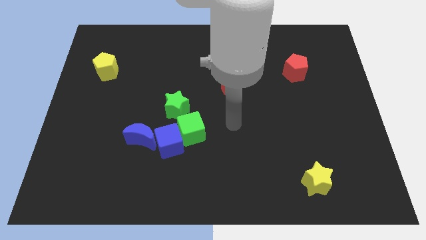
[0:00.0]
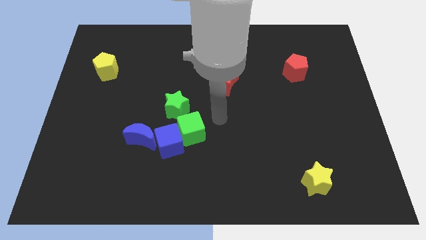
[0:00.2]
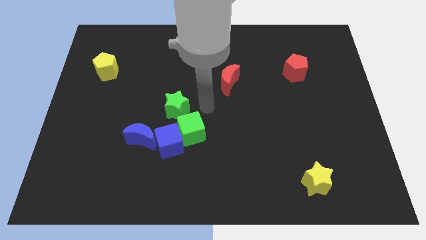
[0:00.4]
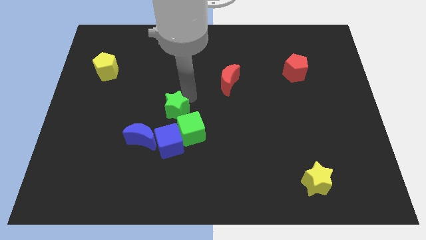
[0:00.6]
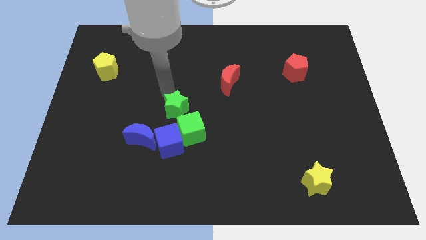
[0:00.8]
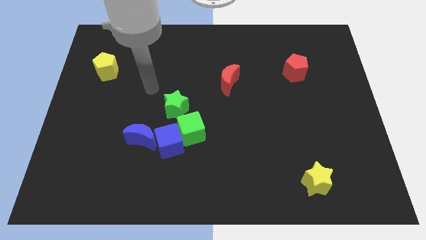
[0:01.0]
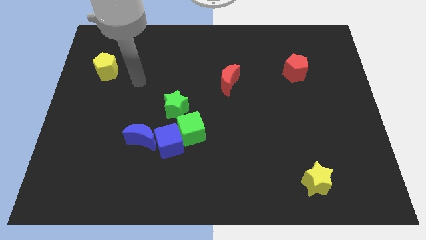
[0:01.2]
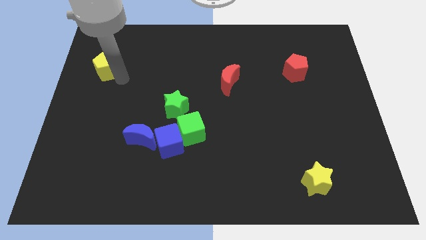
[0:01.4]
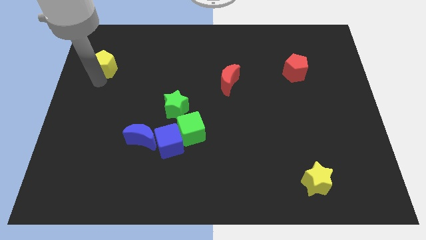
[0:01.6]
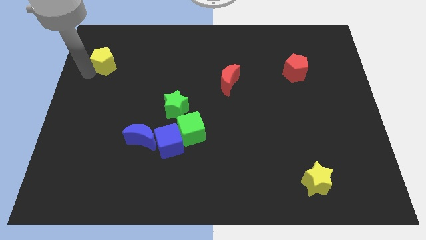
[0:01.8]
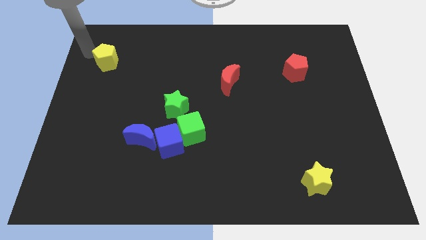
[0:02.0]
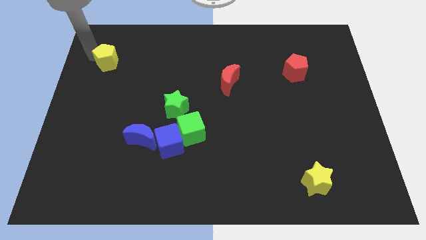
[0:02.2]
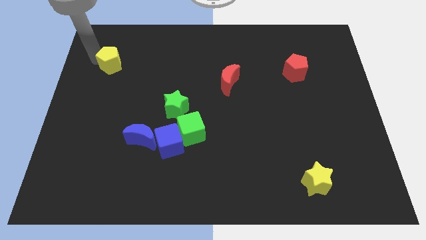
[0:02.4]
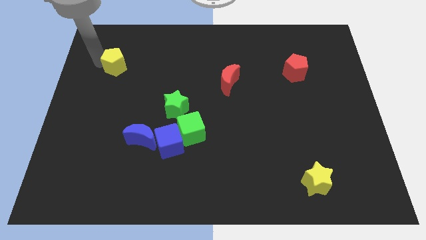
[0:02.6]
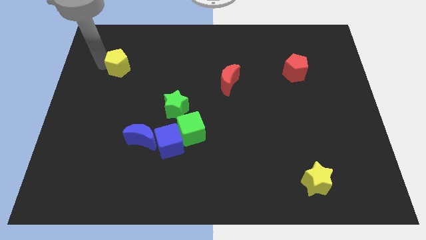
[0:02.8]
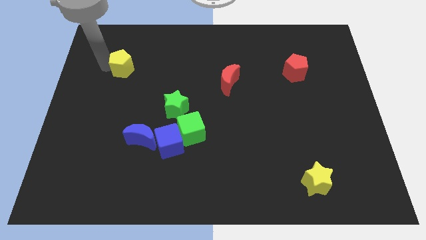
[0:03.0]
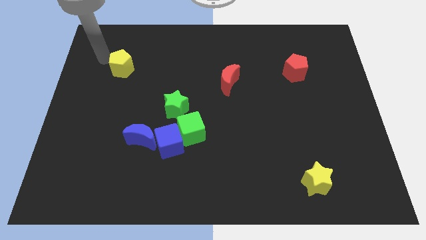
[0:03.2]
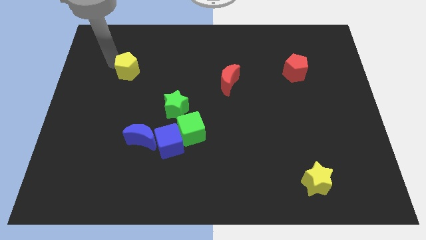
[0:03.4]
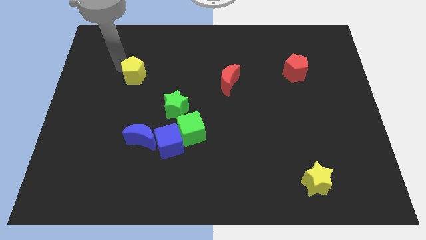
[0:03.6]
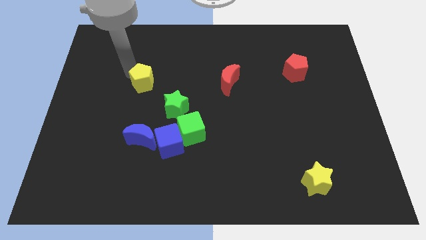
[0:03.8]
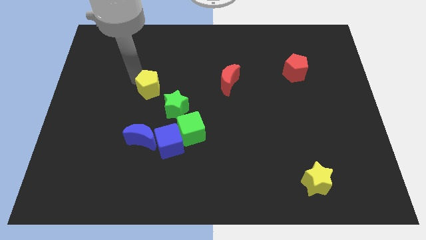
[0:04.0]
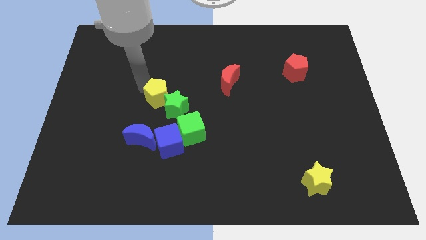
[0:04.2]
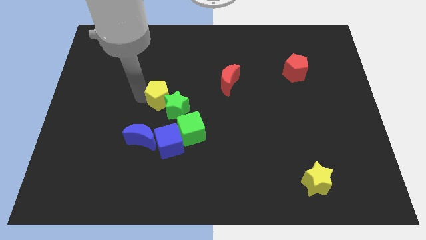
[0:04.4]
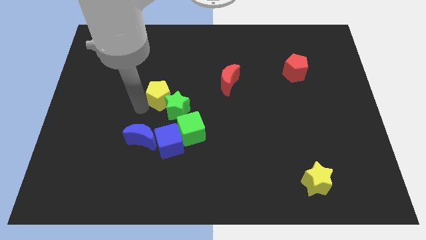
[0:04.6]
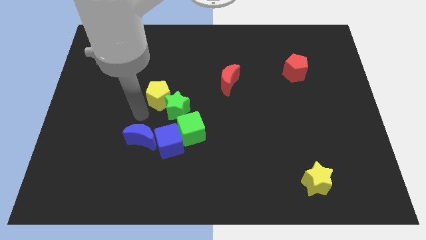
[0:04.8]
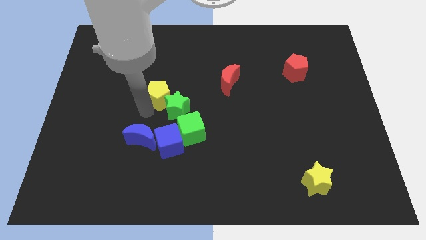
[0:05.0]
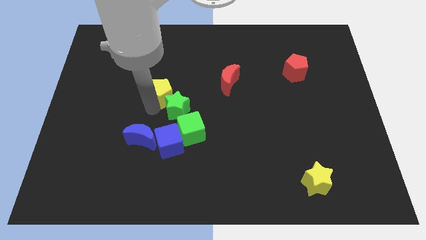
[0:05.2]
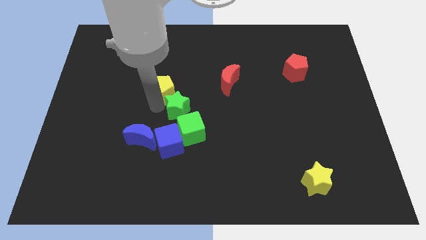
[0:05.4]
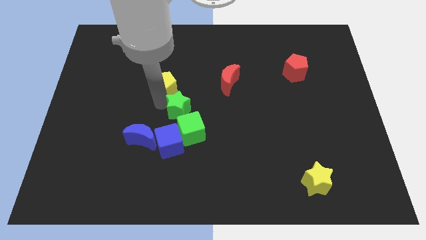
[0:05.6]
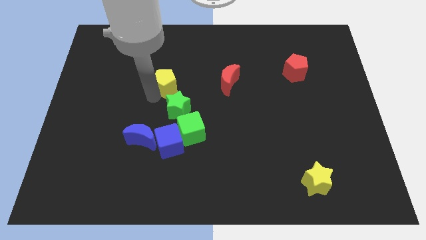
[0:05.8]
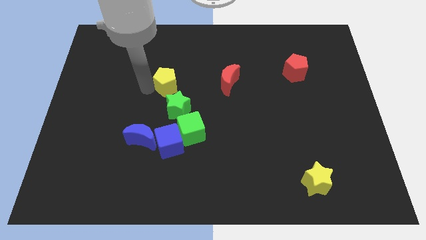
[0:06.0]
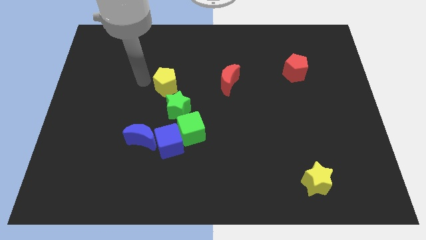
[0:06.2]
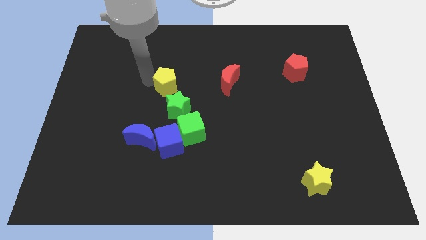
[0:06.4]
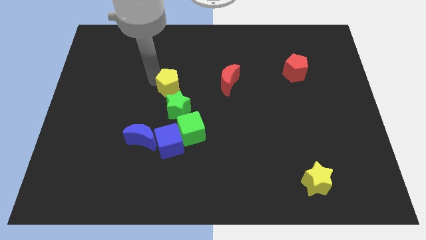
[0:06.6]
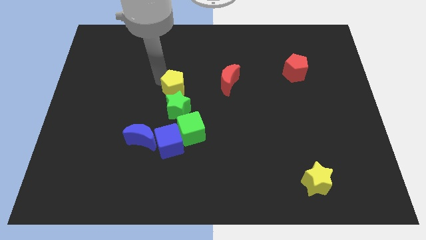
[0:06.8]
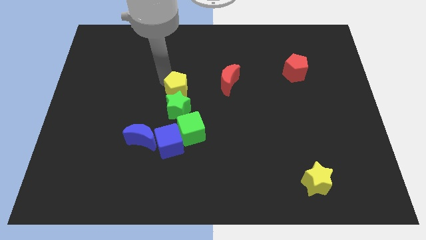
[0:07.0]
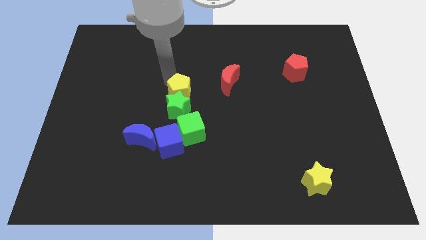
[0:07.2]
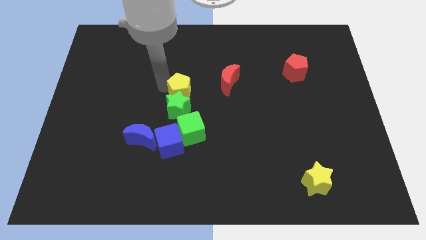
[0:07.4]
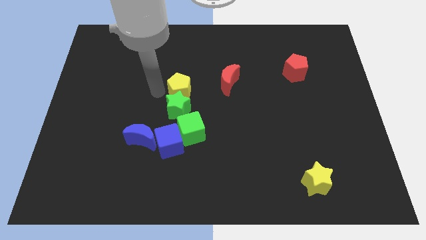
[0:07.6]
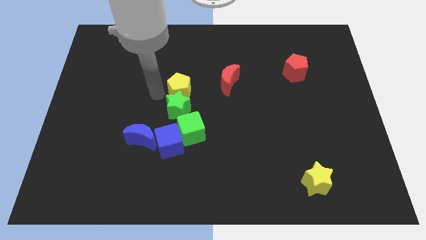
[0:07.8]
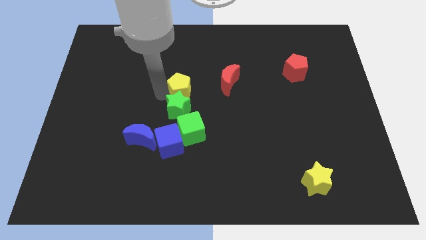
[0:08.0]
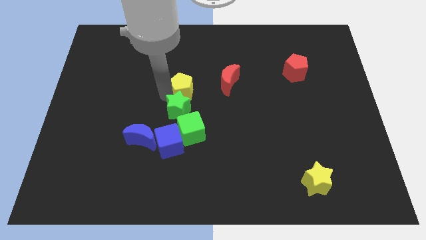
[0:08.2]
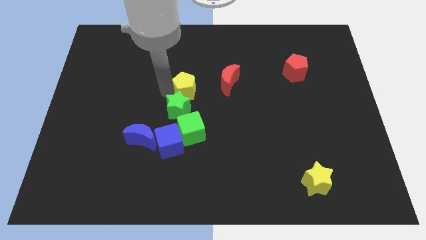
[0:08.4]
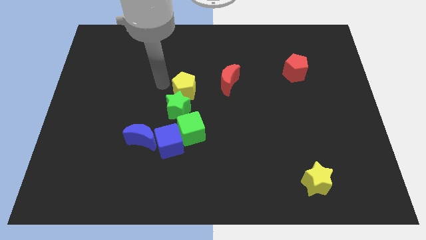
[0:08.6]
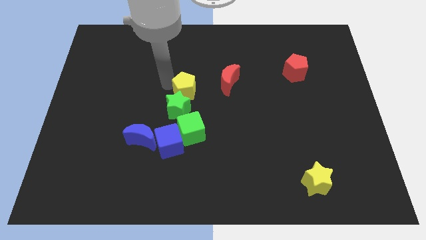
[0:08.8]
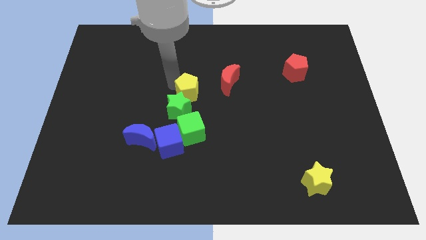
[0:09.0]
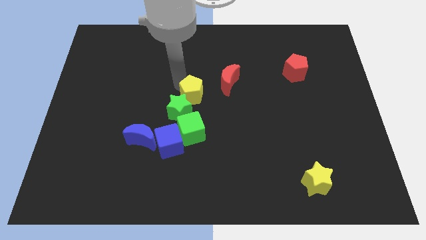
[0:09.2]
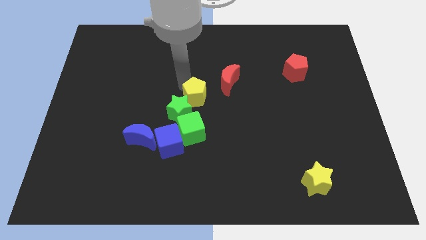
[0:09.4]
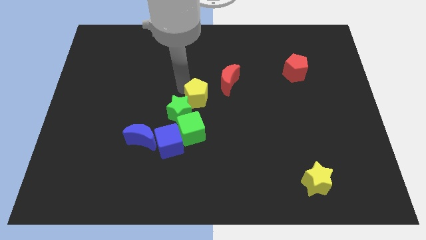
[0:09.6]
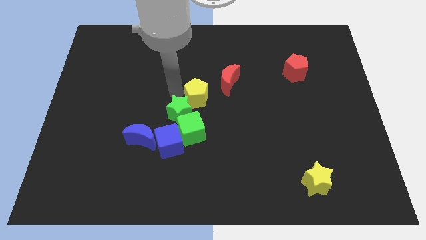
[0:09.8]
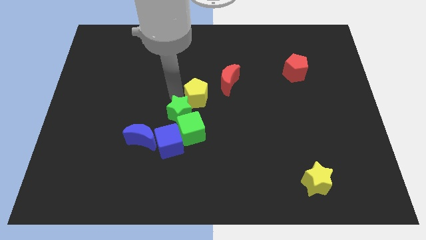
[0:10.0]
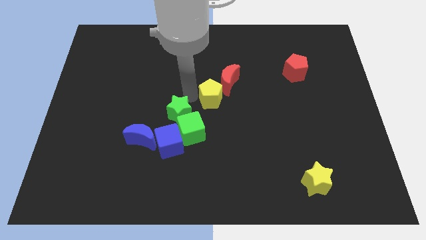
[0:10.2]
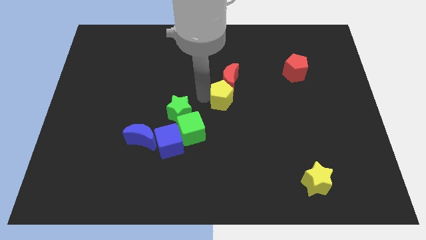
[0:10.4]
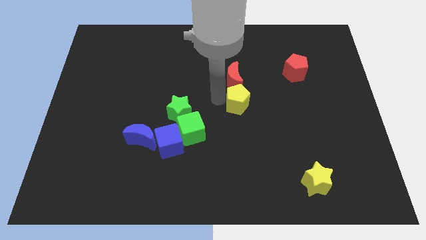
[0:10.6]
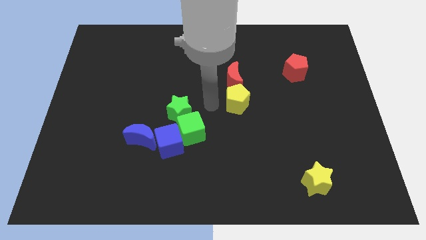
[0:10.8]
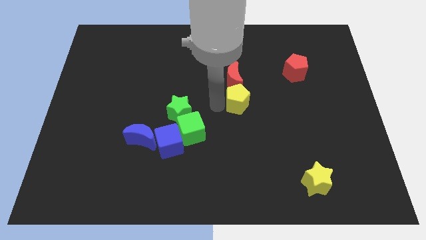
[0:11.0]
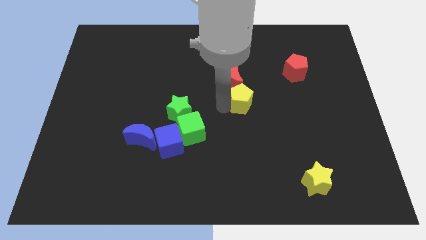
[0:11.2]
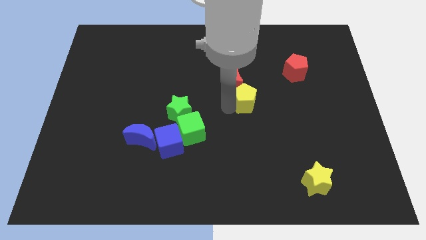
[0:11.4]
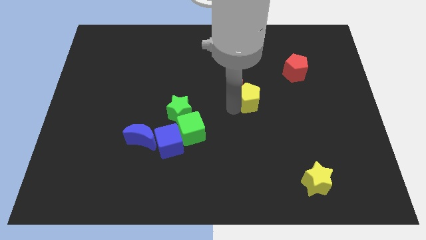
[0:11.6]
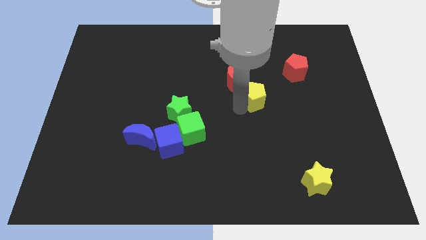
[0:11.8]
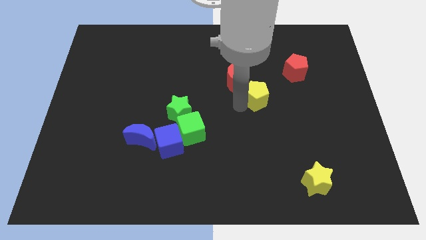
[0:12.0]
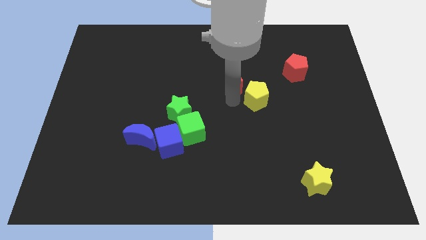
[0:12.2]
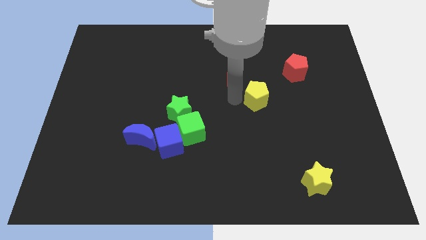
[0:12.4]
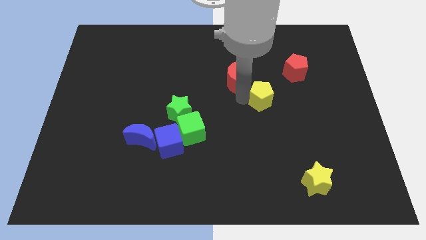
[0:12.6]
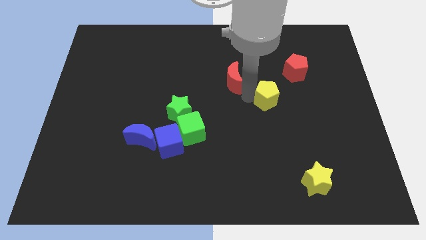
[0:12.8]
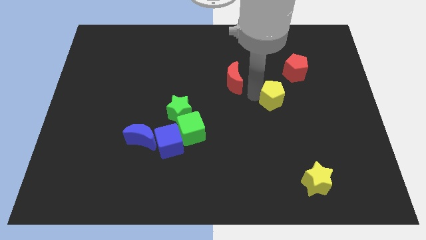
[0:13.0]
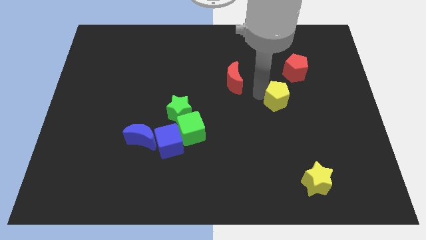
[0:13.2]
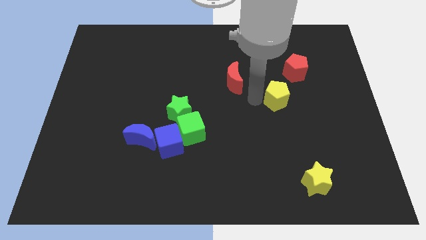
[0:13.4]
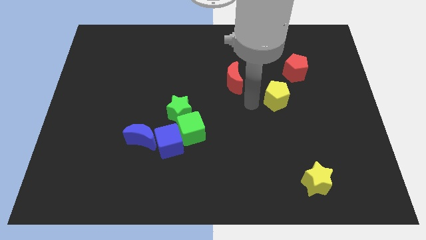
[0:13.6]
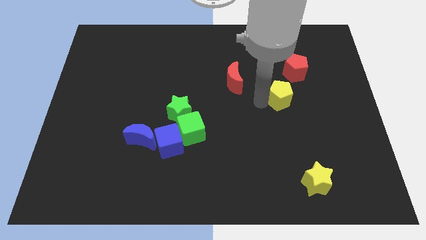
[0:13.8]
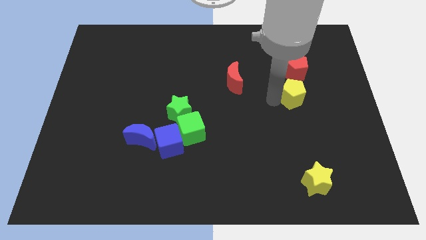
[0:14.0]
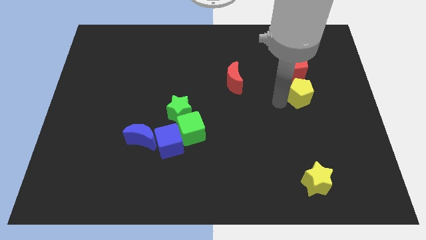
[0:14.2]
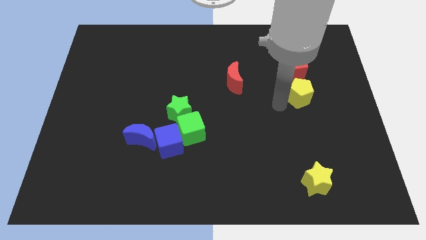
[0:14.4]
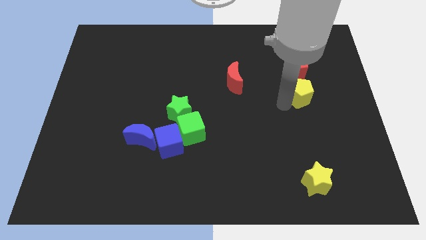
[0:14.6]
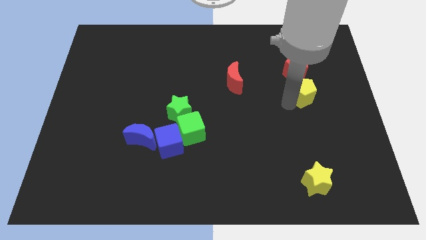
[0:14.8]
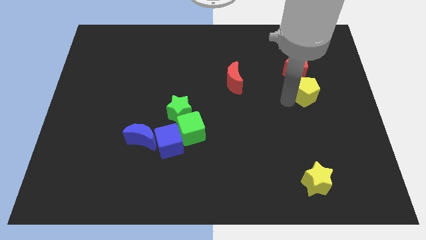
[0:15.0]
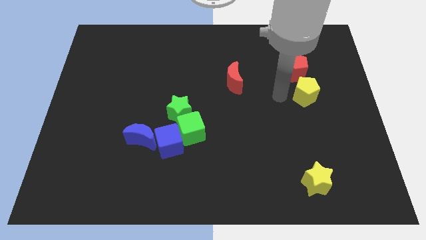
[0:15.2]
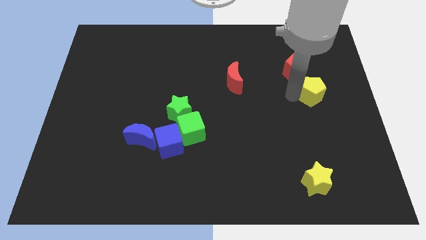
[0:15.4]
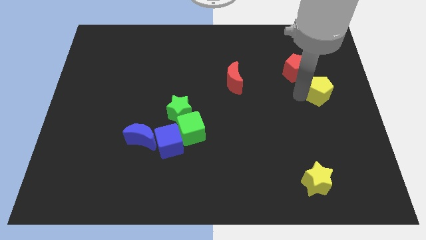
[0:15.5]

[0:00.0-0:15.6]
slide the yellow pentagon to the right side
